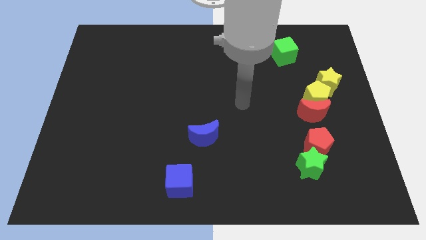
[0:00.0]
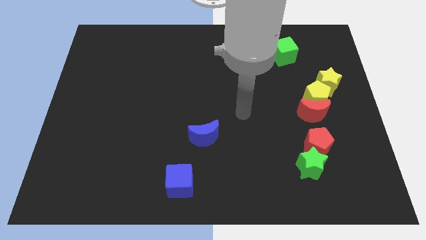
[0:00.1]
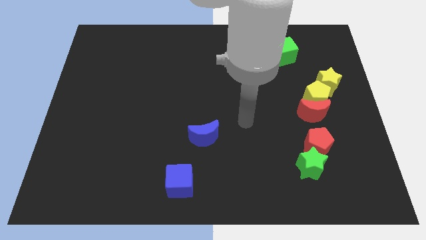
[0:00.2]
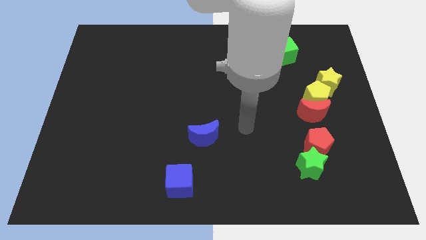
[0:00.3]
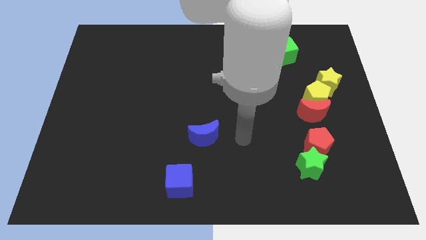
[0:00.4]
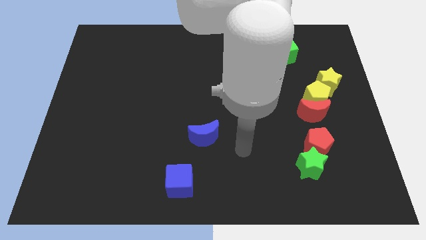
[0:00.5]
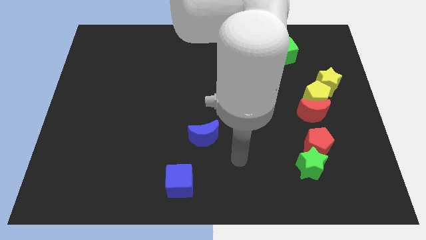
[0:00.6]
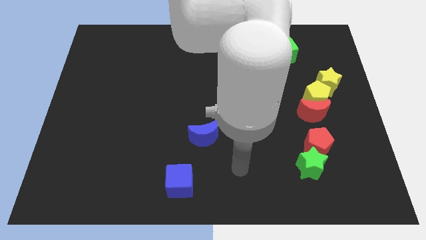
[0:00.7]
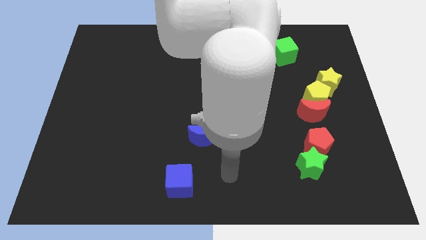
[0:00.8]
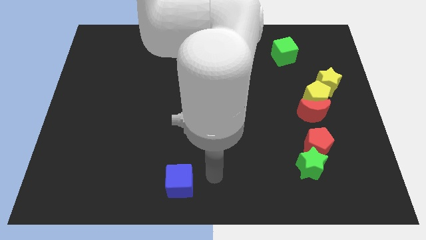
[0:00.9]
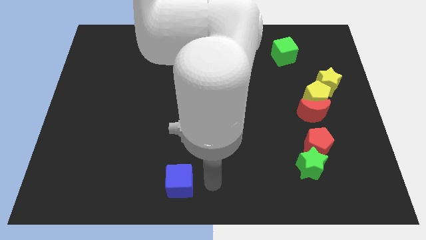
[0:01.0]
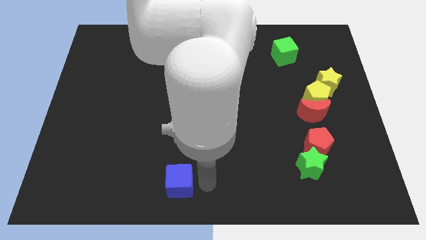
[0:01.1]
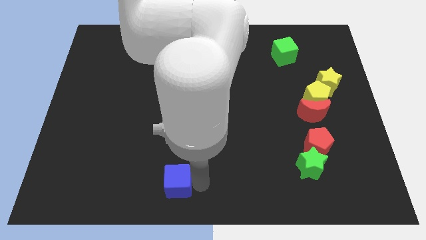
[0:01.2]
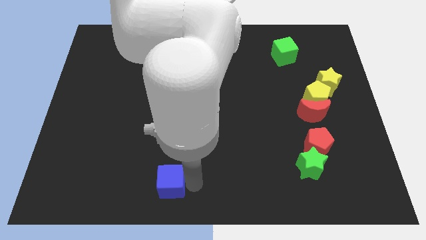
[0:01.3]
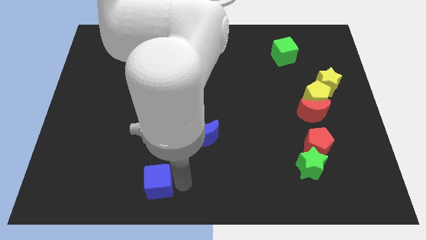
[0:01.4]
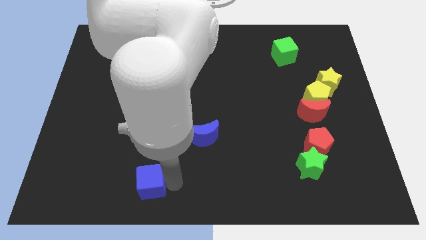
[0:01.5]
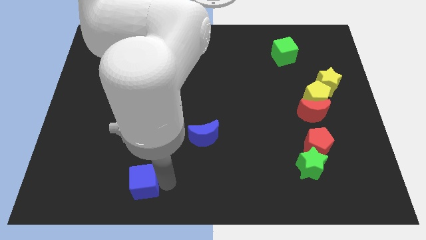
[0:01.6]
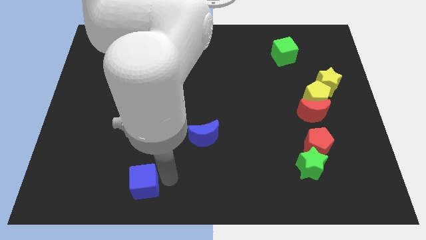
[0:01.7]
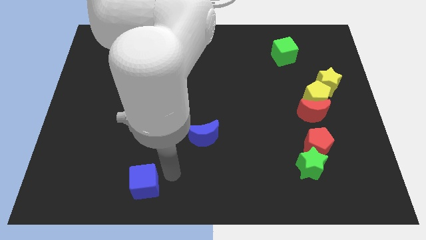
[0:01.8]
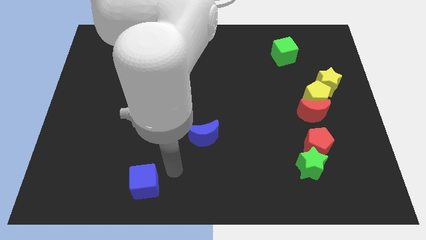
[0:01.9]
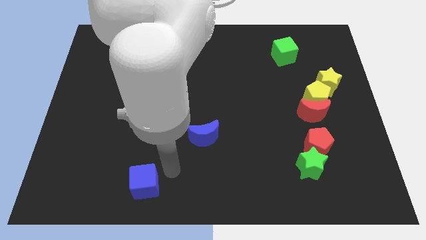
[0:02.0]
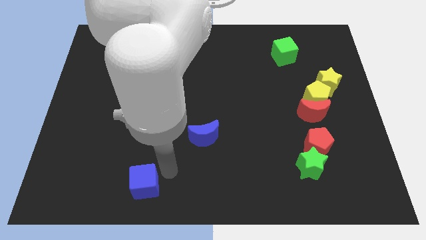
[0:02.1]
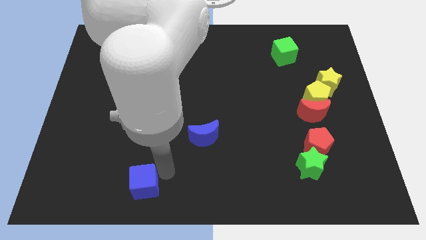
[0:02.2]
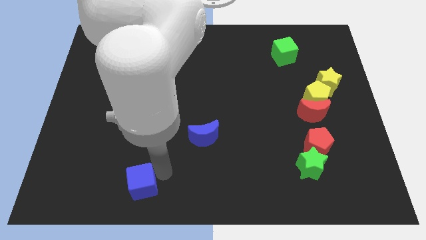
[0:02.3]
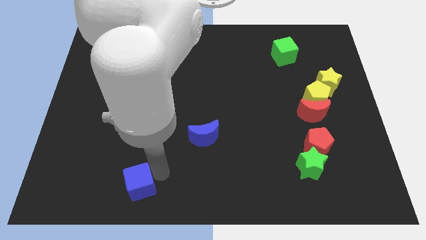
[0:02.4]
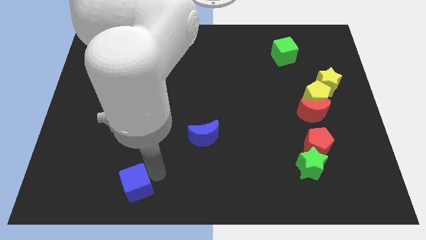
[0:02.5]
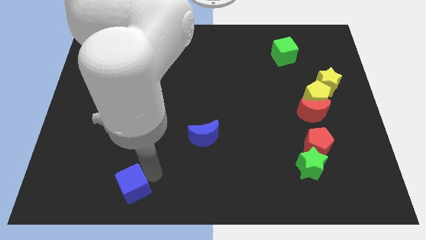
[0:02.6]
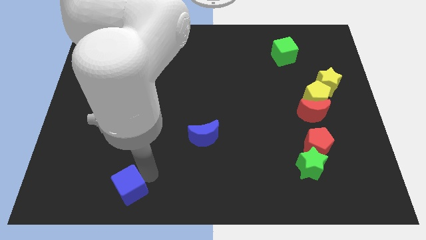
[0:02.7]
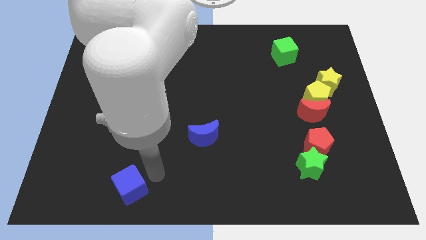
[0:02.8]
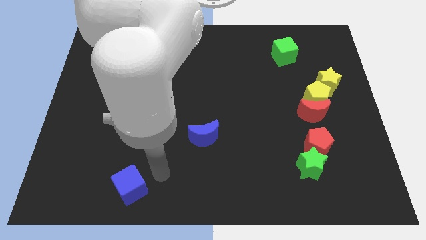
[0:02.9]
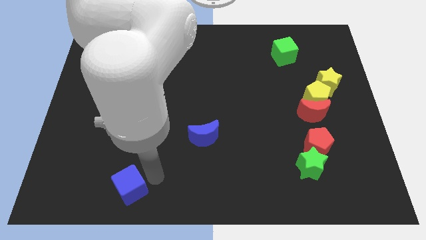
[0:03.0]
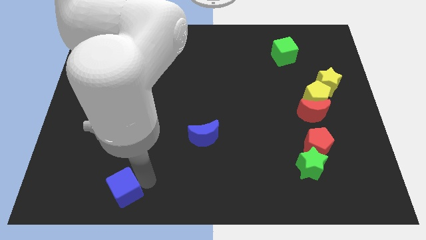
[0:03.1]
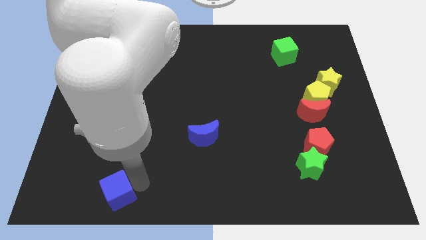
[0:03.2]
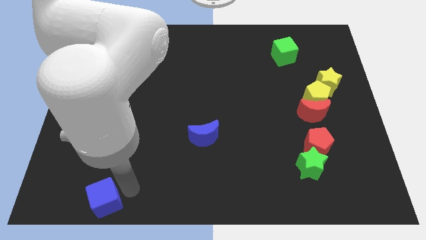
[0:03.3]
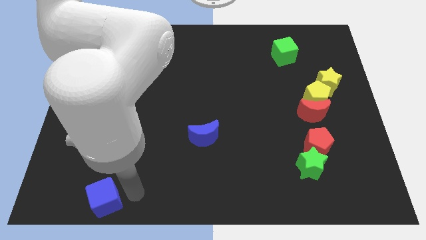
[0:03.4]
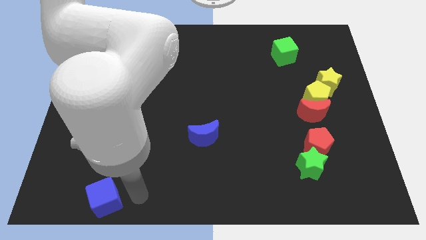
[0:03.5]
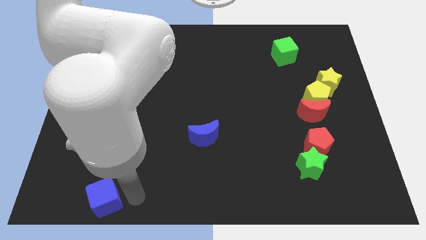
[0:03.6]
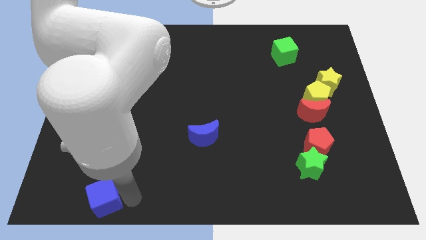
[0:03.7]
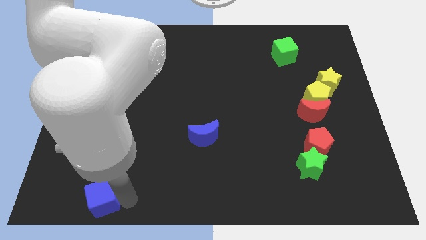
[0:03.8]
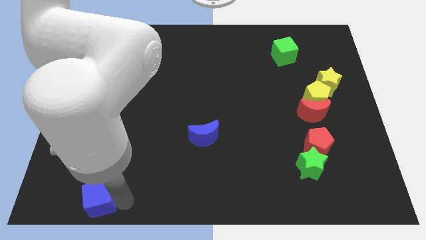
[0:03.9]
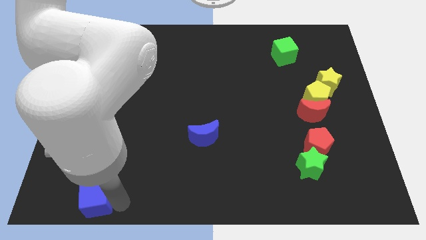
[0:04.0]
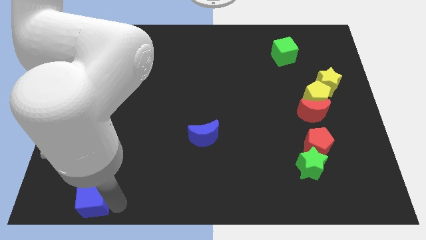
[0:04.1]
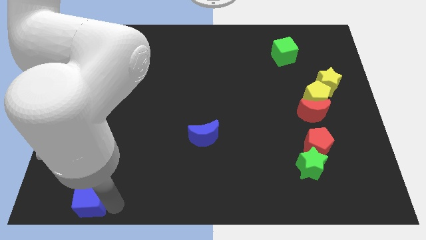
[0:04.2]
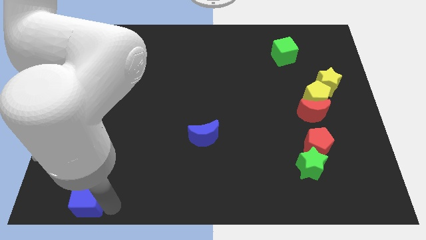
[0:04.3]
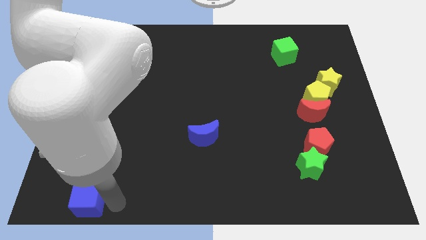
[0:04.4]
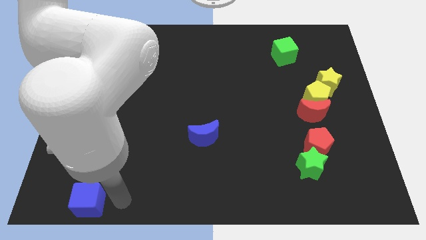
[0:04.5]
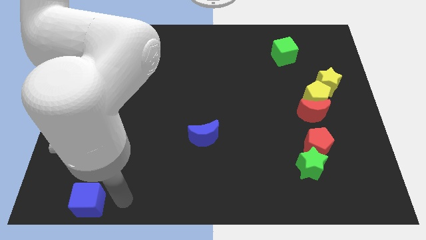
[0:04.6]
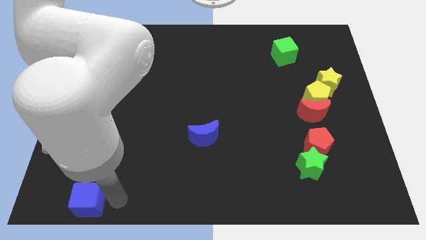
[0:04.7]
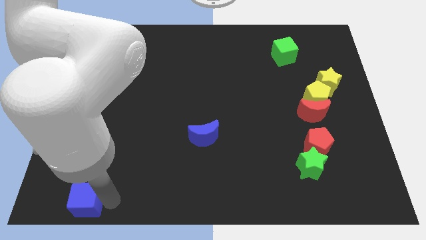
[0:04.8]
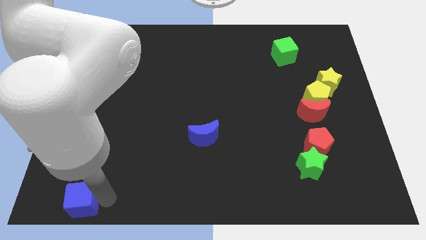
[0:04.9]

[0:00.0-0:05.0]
put the blue cube to the bottom left of the board
